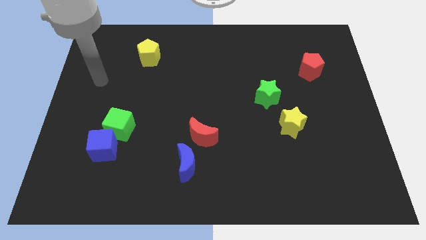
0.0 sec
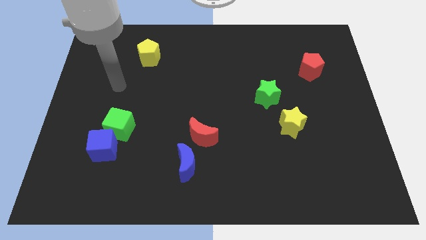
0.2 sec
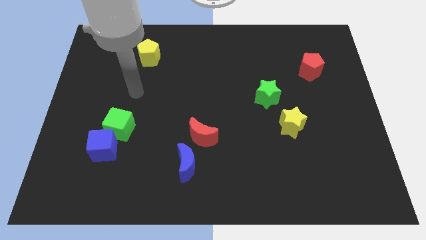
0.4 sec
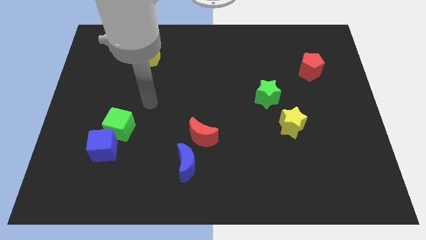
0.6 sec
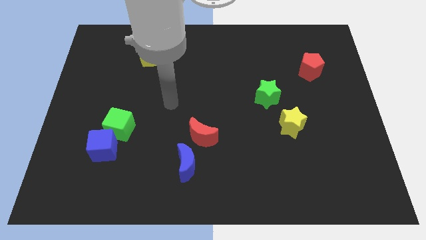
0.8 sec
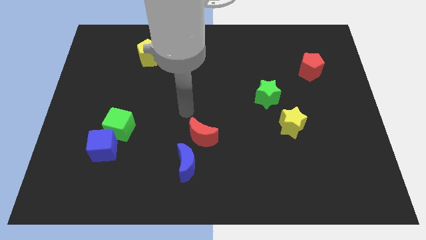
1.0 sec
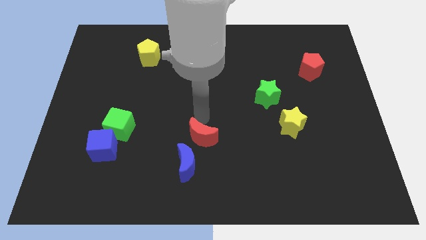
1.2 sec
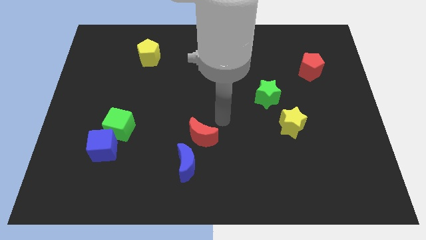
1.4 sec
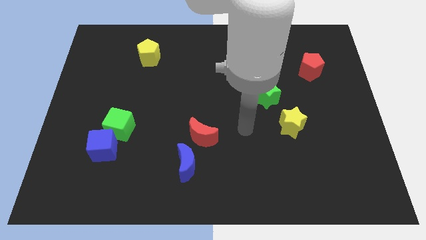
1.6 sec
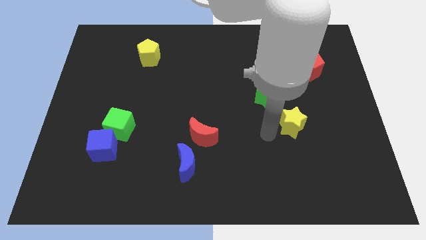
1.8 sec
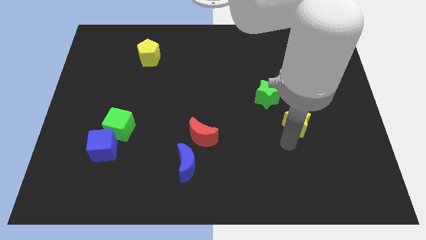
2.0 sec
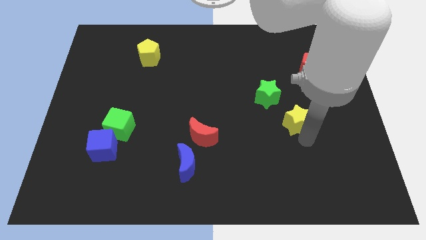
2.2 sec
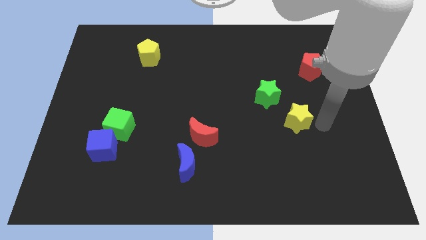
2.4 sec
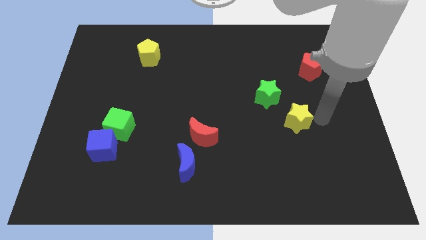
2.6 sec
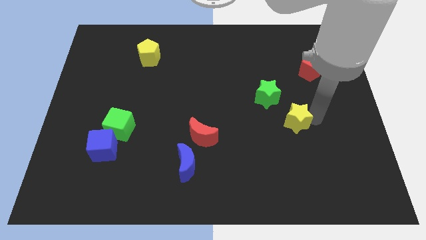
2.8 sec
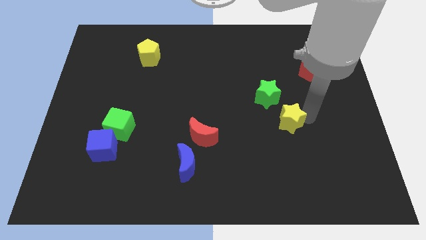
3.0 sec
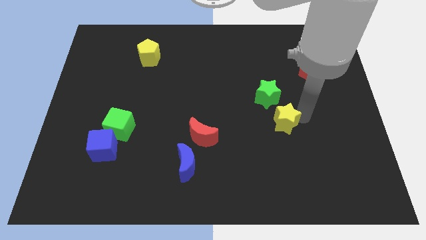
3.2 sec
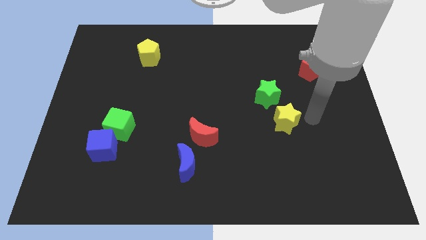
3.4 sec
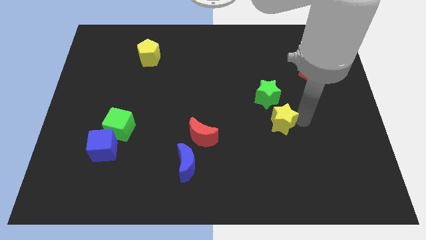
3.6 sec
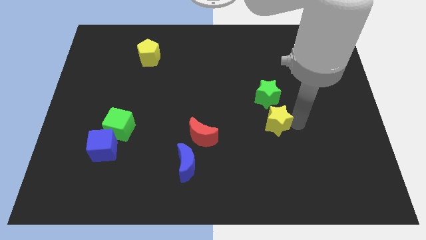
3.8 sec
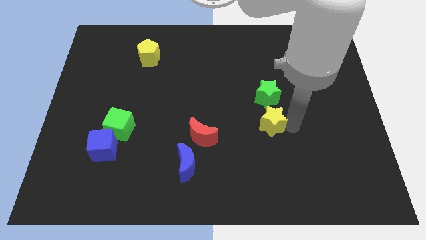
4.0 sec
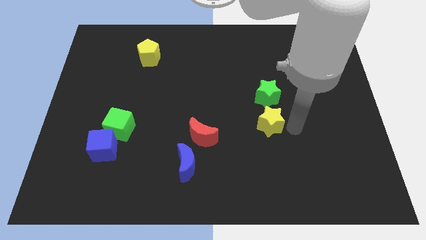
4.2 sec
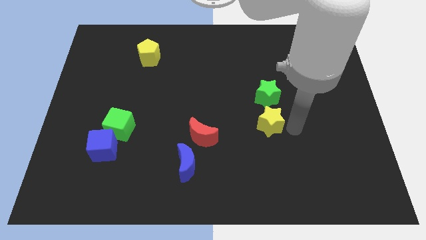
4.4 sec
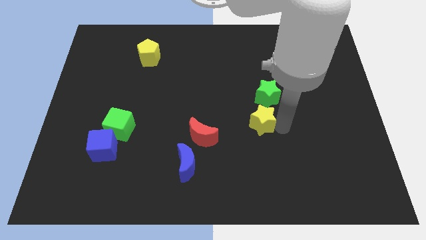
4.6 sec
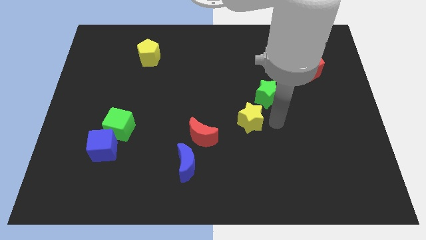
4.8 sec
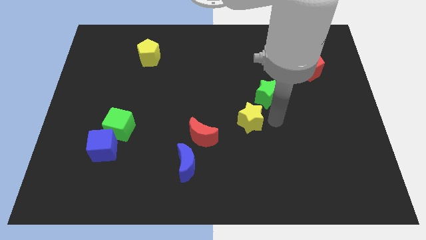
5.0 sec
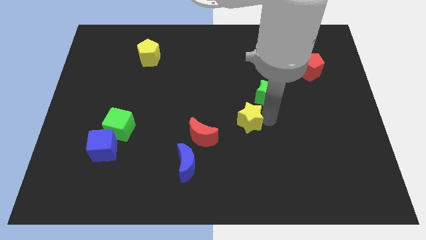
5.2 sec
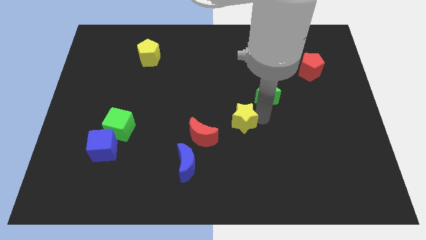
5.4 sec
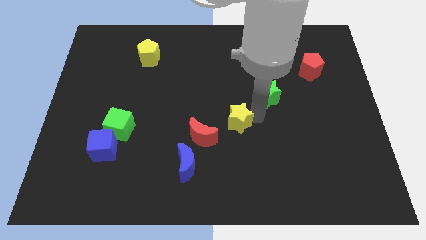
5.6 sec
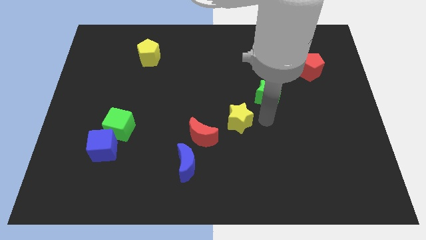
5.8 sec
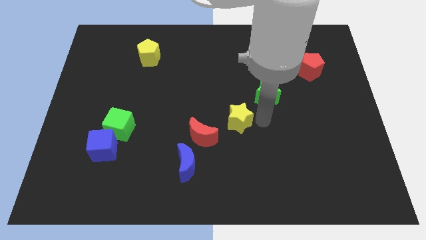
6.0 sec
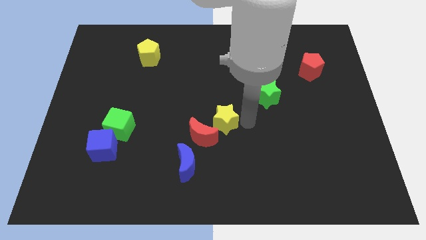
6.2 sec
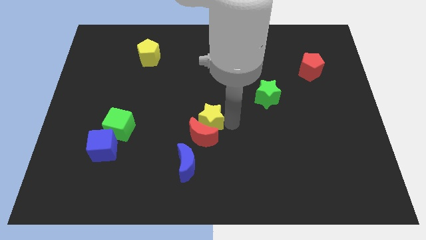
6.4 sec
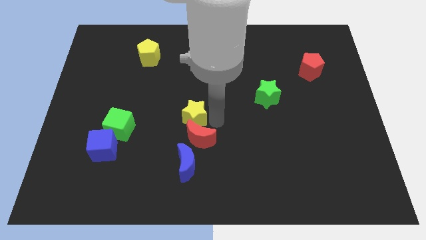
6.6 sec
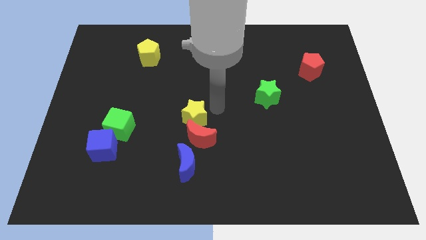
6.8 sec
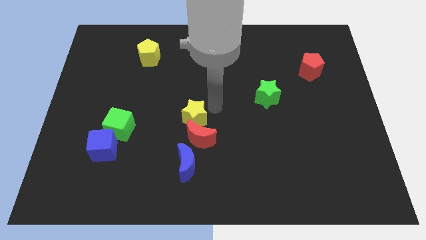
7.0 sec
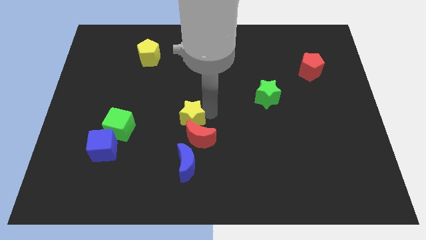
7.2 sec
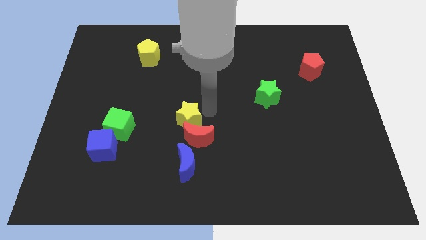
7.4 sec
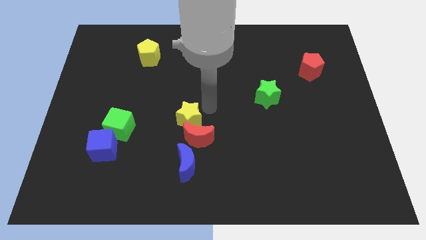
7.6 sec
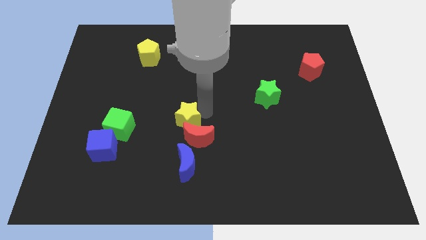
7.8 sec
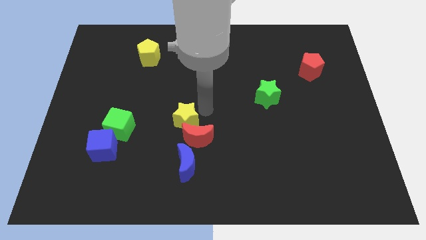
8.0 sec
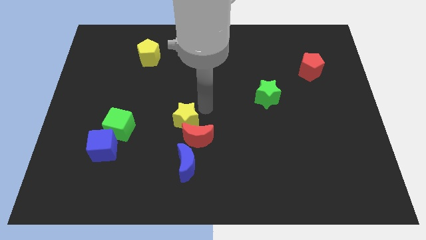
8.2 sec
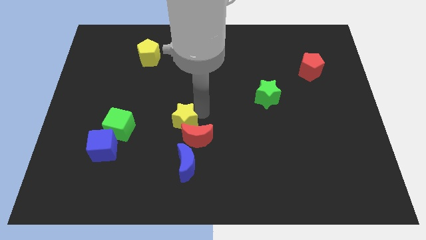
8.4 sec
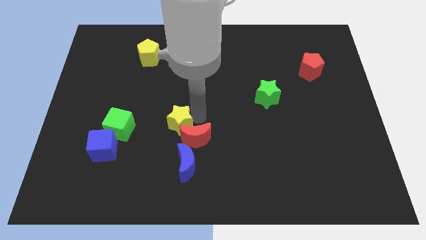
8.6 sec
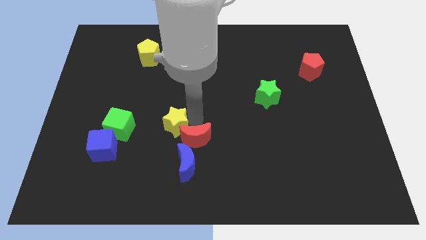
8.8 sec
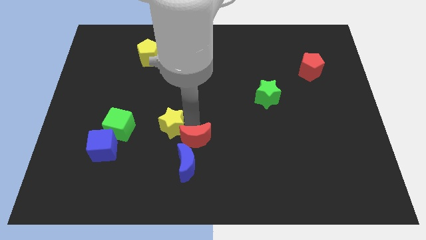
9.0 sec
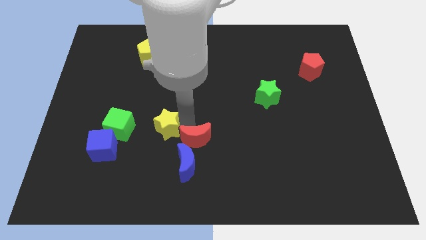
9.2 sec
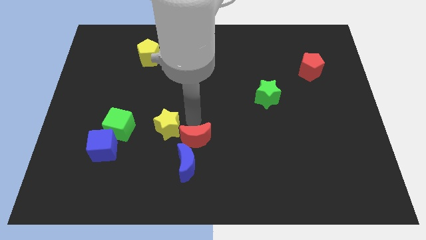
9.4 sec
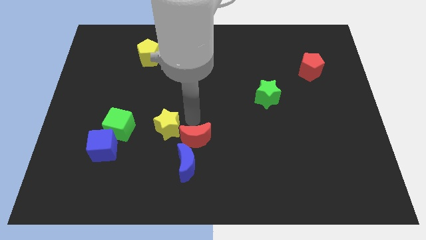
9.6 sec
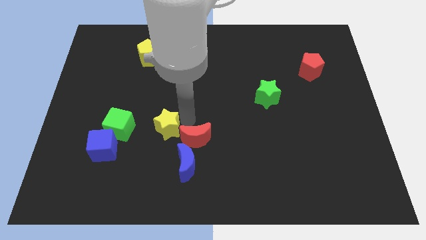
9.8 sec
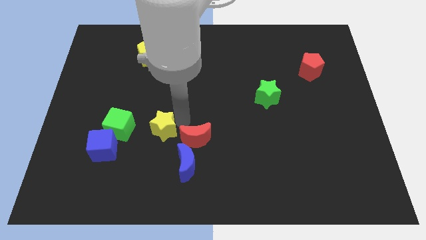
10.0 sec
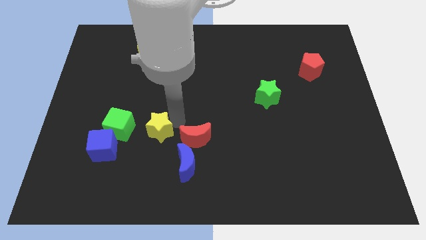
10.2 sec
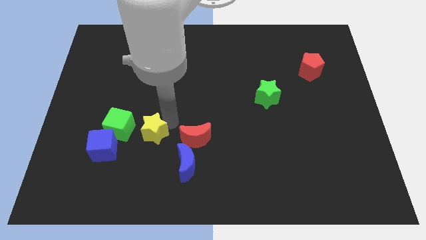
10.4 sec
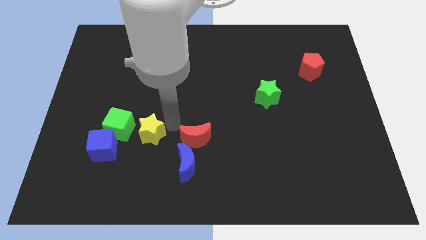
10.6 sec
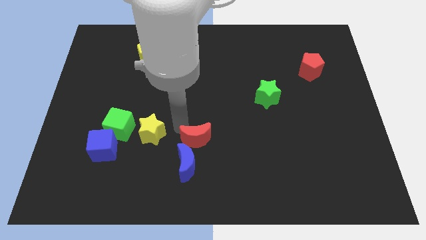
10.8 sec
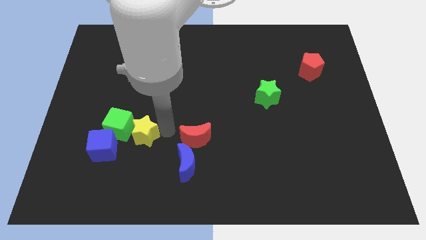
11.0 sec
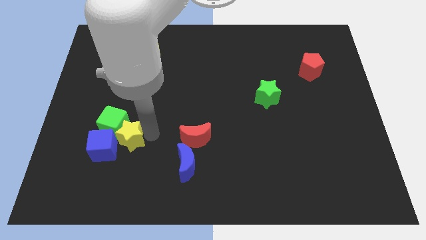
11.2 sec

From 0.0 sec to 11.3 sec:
push the yellow star towards the blue cube

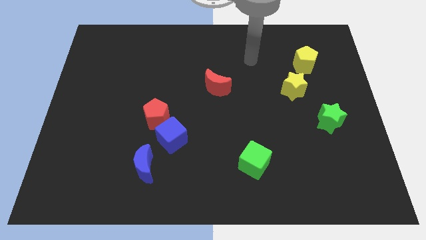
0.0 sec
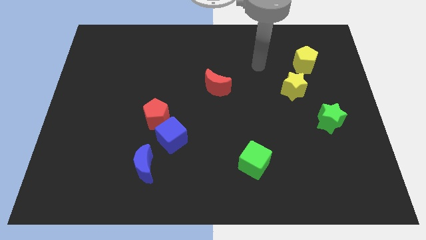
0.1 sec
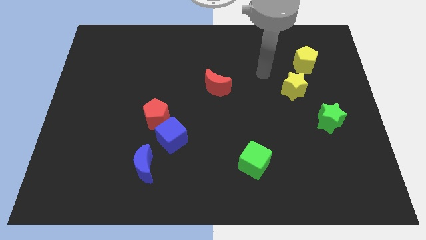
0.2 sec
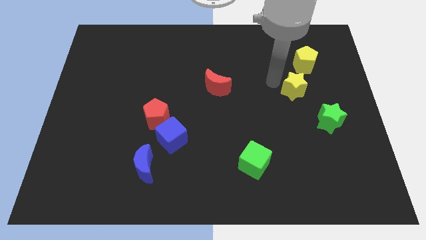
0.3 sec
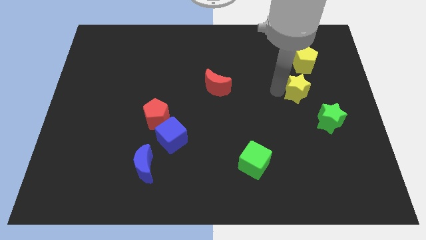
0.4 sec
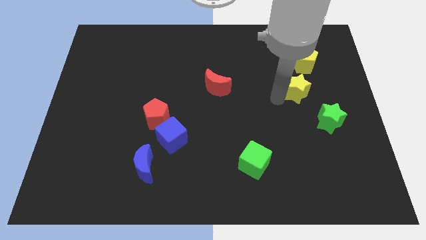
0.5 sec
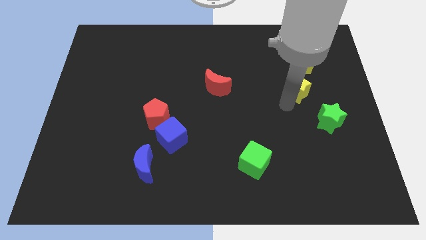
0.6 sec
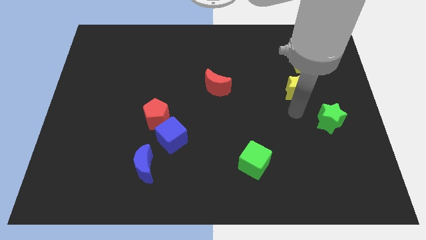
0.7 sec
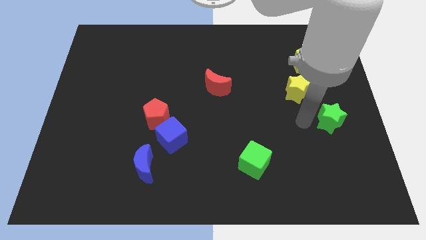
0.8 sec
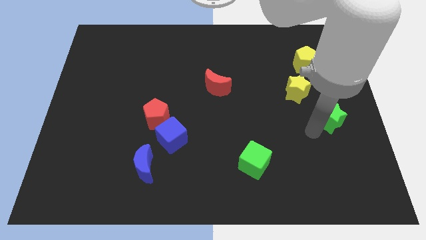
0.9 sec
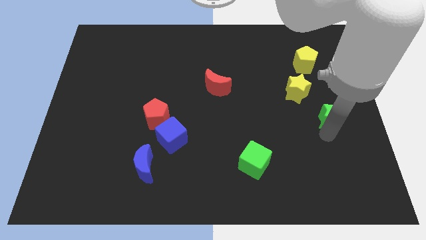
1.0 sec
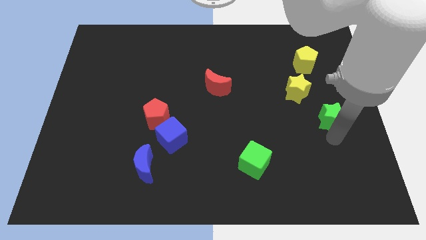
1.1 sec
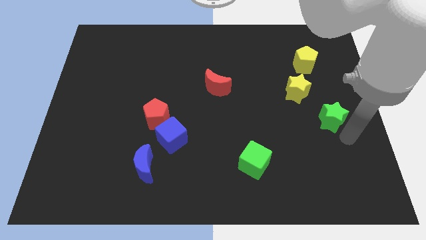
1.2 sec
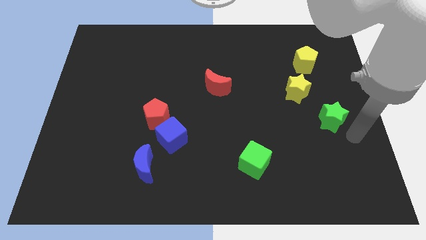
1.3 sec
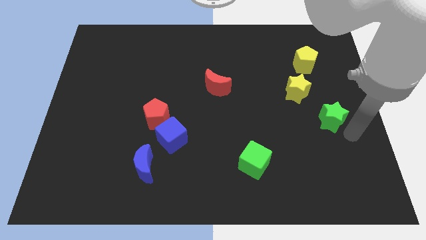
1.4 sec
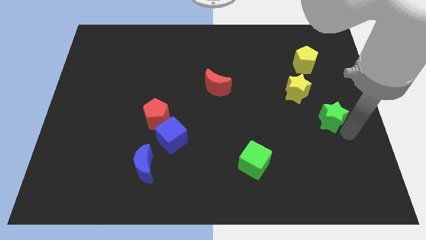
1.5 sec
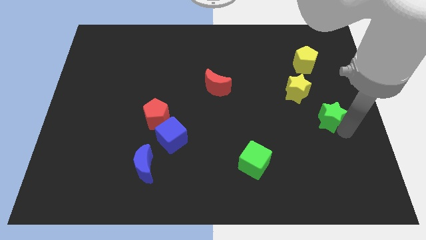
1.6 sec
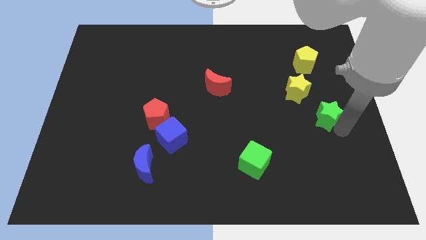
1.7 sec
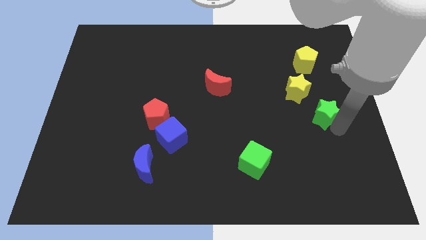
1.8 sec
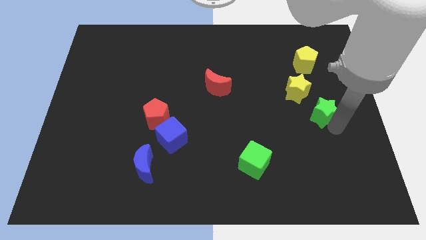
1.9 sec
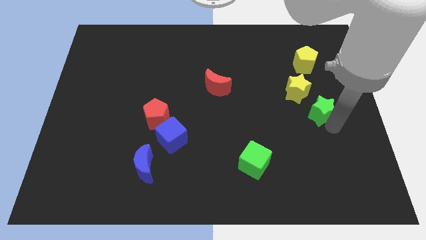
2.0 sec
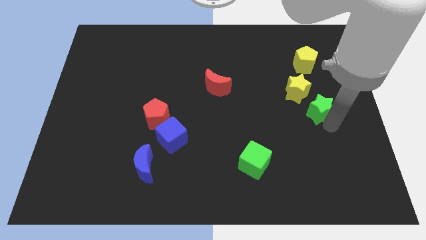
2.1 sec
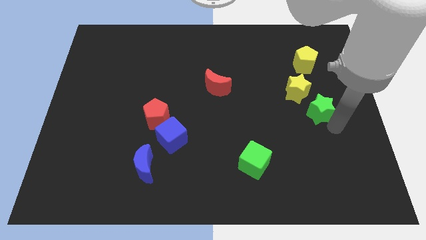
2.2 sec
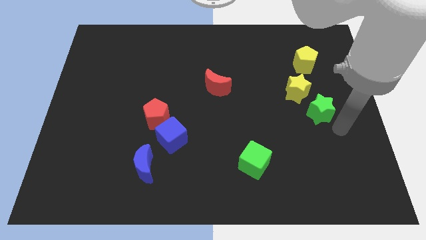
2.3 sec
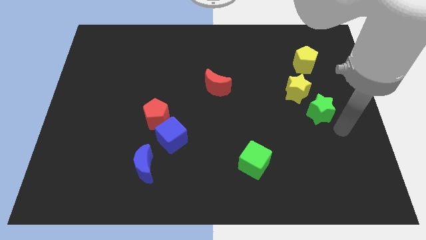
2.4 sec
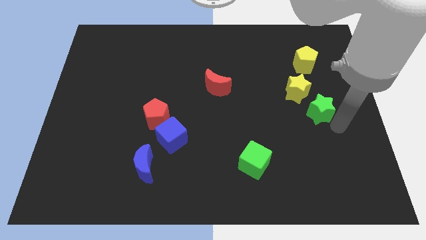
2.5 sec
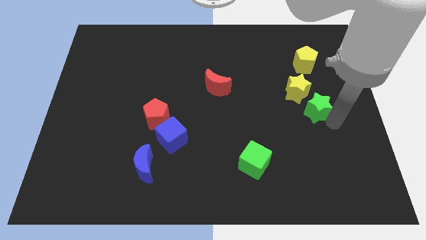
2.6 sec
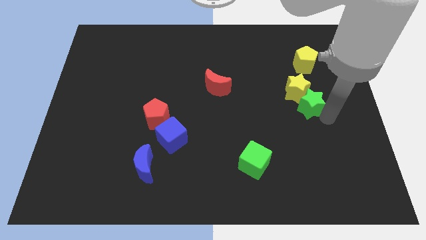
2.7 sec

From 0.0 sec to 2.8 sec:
put the green star next to the yellow star
